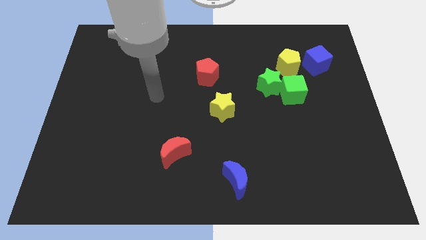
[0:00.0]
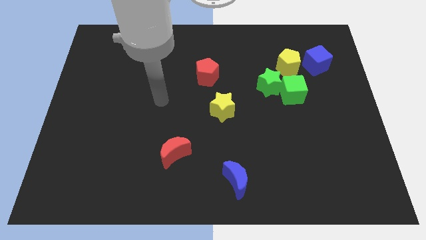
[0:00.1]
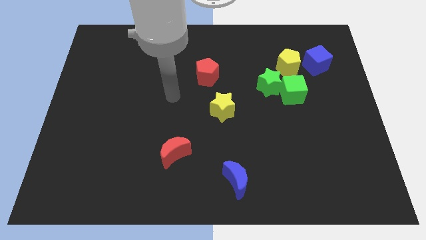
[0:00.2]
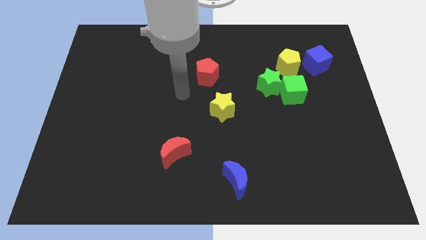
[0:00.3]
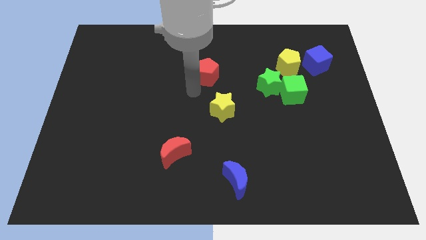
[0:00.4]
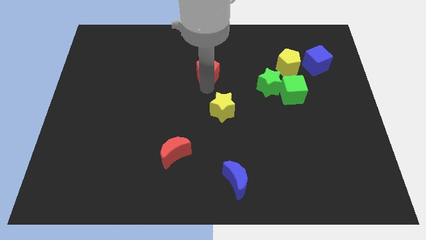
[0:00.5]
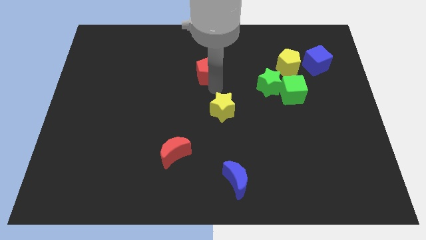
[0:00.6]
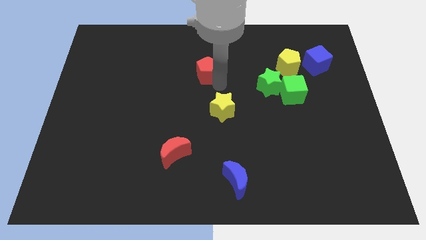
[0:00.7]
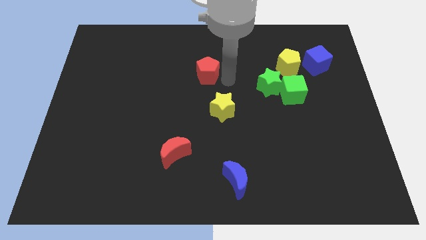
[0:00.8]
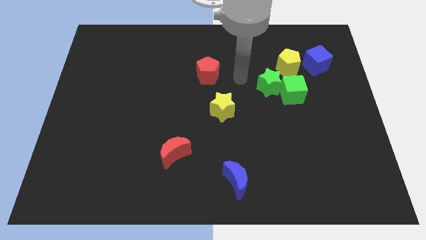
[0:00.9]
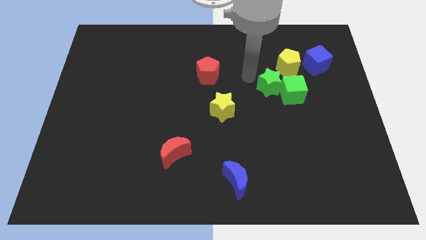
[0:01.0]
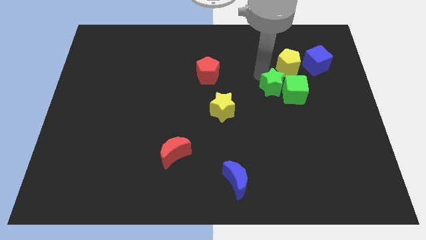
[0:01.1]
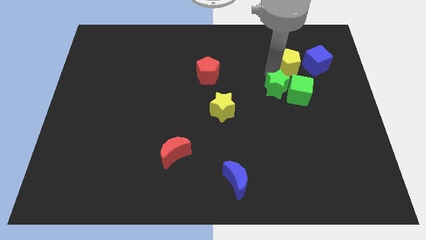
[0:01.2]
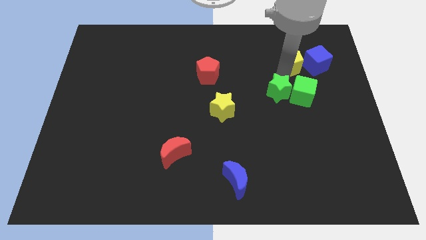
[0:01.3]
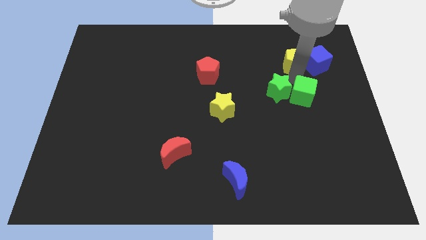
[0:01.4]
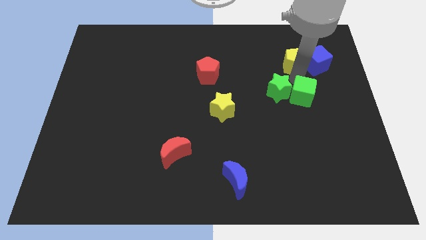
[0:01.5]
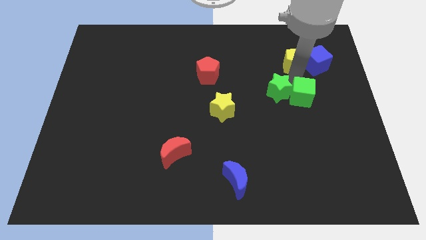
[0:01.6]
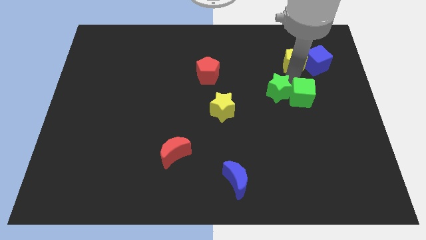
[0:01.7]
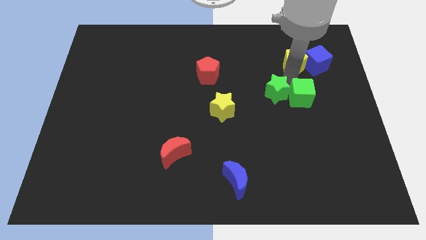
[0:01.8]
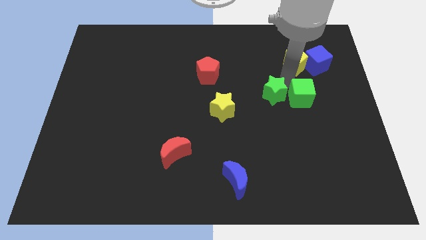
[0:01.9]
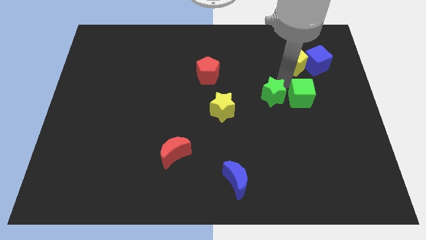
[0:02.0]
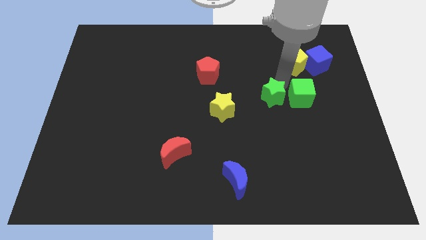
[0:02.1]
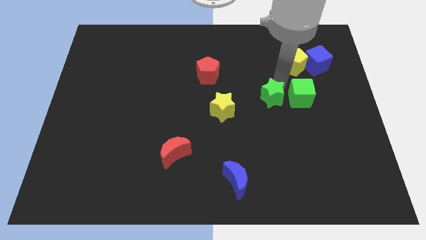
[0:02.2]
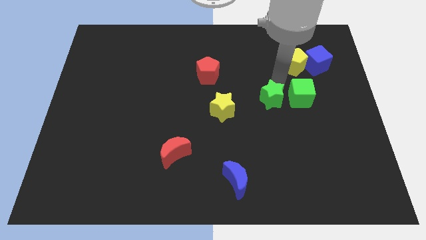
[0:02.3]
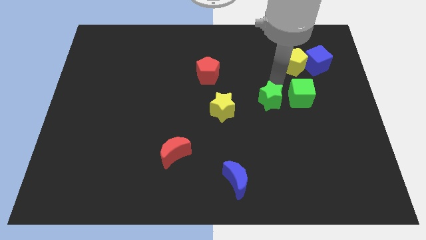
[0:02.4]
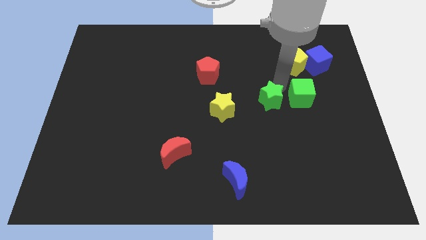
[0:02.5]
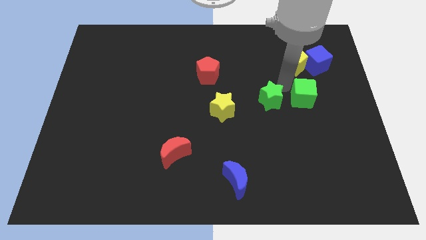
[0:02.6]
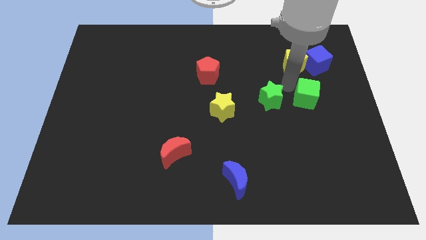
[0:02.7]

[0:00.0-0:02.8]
separate the green star from the green cube and yellow pentagon

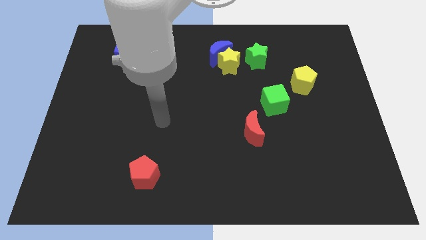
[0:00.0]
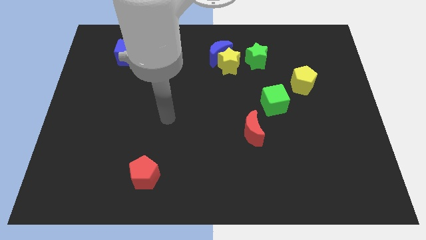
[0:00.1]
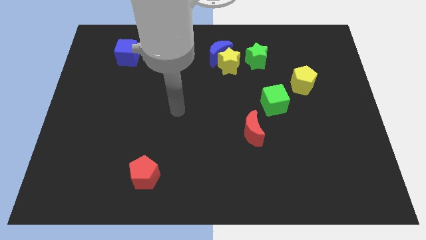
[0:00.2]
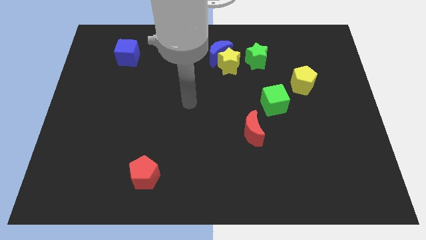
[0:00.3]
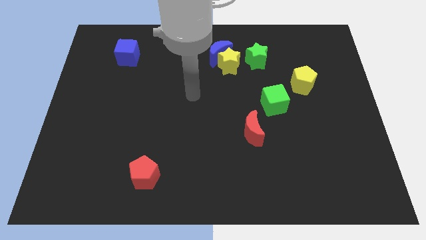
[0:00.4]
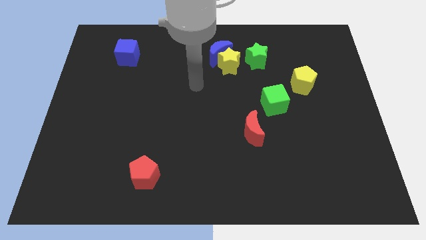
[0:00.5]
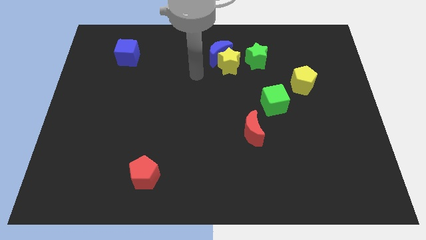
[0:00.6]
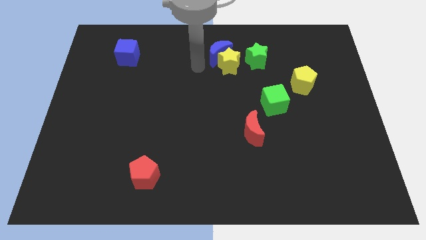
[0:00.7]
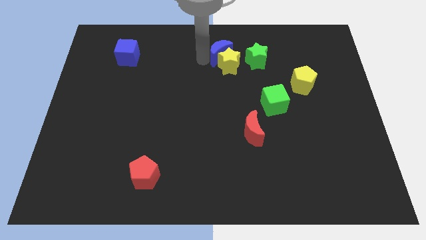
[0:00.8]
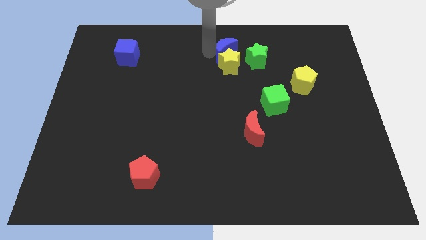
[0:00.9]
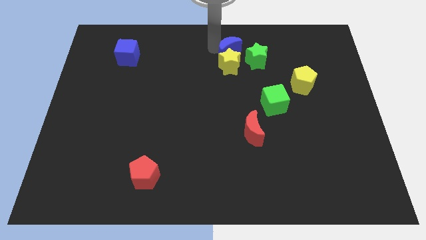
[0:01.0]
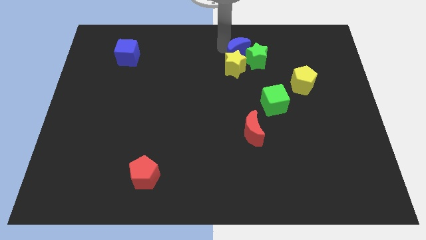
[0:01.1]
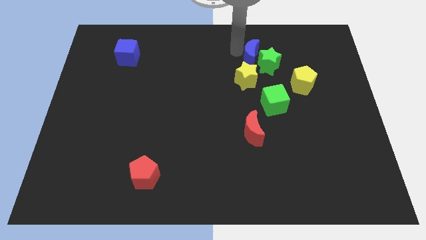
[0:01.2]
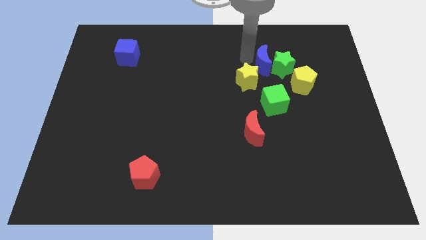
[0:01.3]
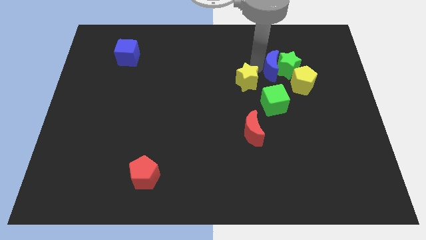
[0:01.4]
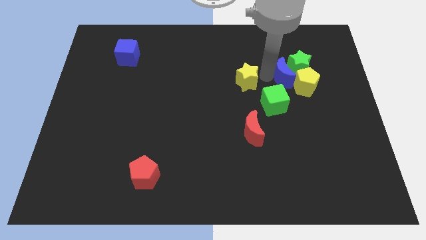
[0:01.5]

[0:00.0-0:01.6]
pull the yellow star apart from the blue moon and green star

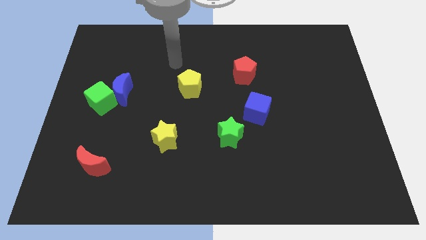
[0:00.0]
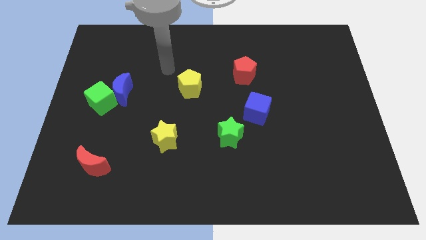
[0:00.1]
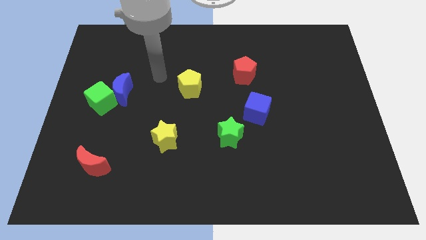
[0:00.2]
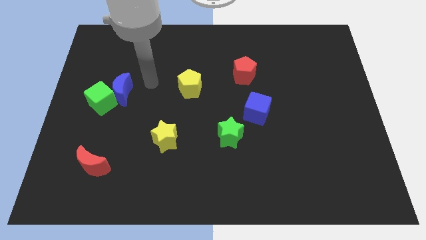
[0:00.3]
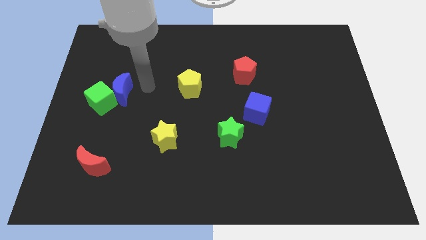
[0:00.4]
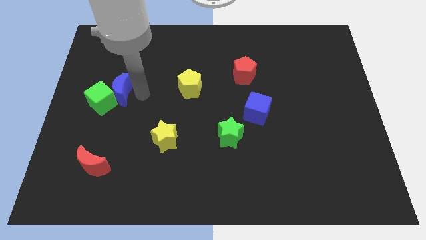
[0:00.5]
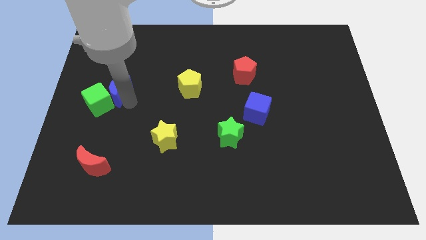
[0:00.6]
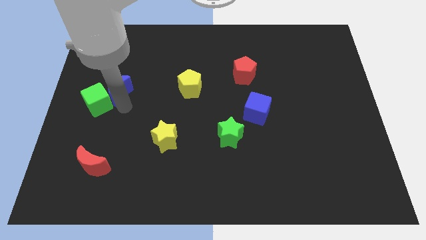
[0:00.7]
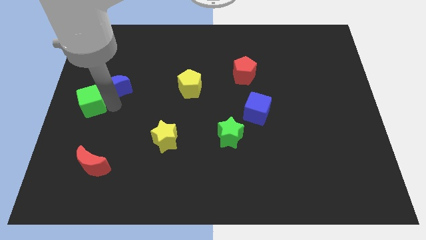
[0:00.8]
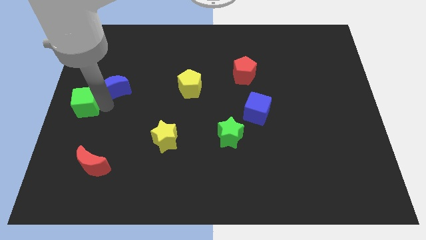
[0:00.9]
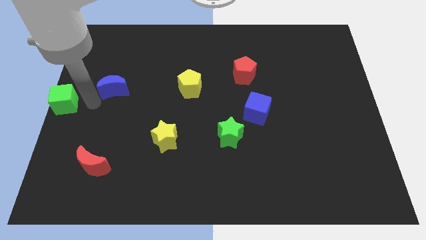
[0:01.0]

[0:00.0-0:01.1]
pull the blue moon apart from the green cube

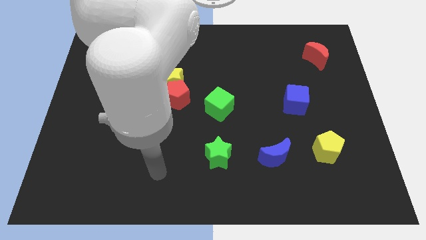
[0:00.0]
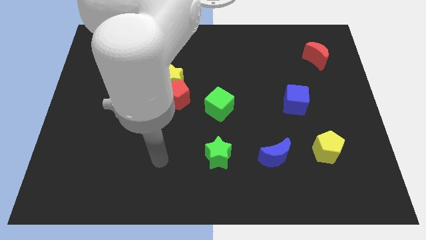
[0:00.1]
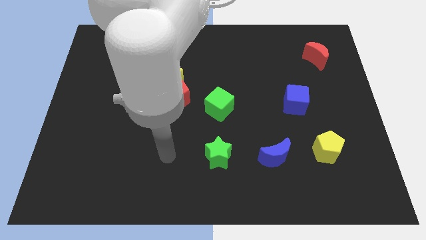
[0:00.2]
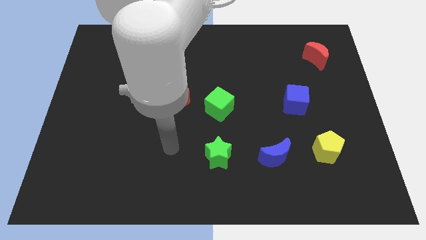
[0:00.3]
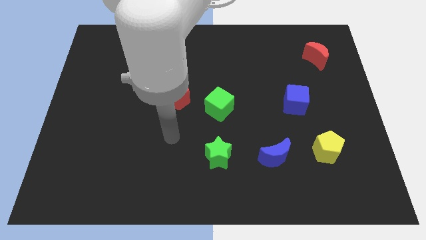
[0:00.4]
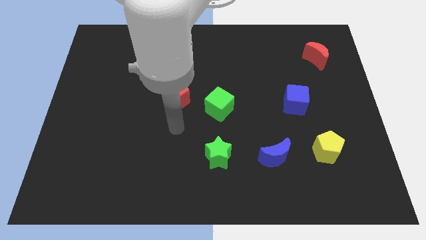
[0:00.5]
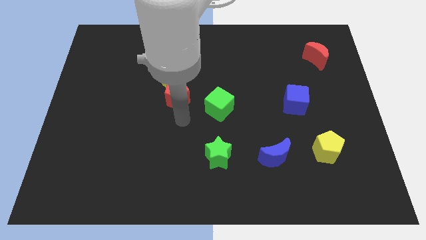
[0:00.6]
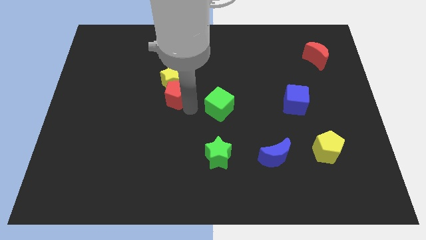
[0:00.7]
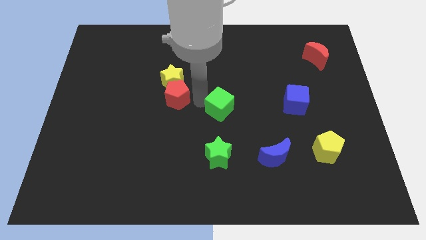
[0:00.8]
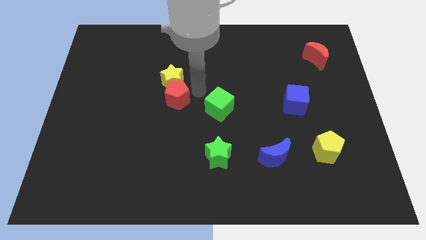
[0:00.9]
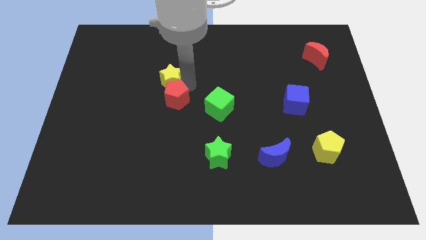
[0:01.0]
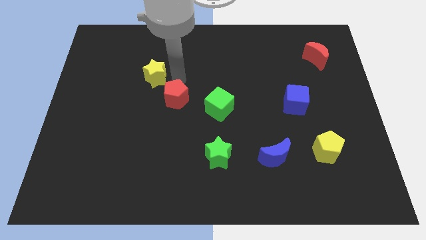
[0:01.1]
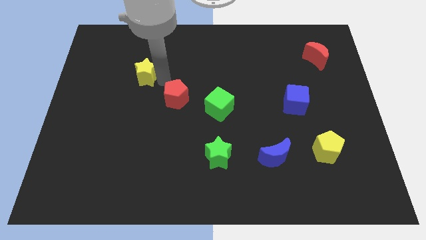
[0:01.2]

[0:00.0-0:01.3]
separate the red pentagon from the yellow star

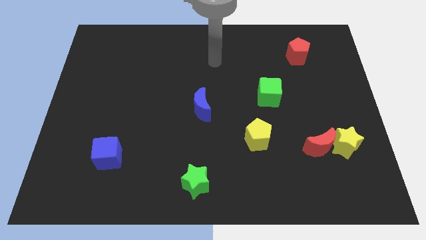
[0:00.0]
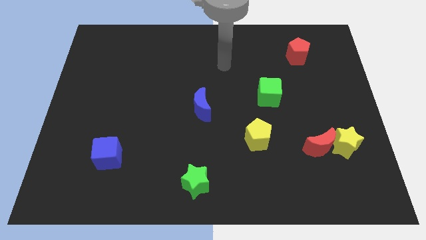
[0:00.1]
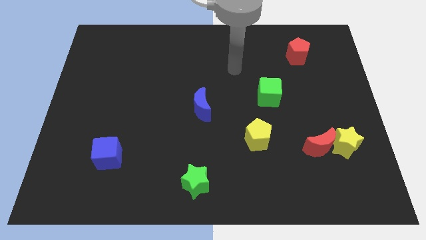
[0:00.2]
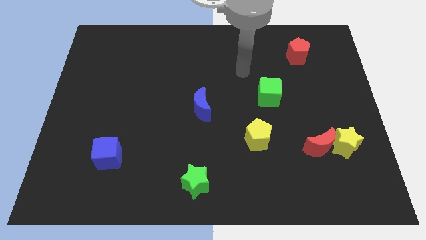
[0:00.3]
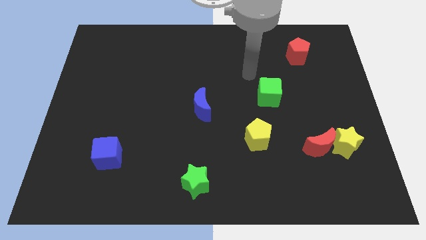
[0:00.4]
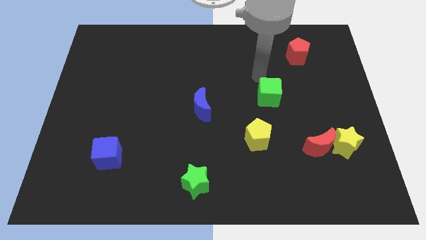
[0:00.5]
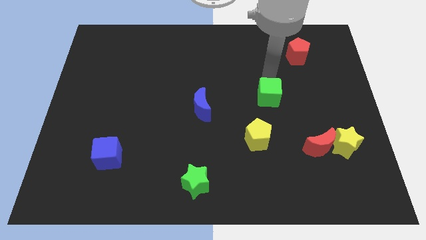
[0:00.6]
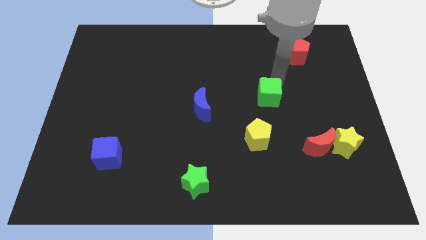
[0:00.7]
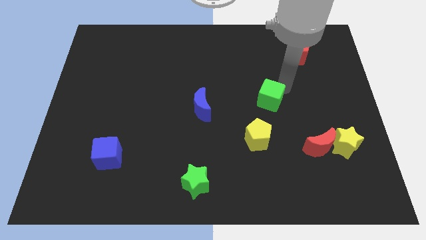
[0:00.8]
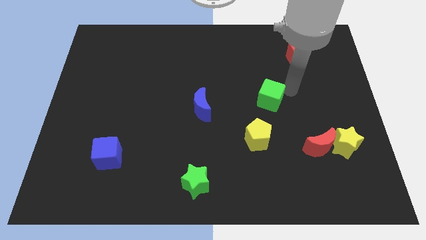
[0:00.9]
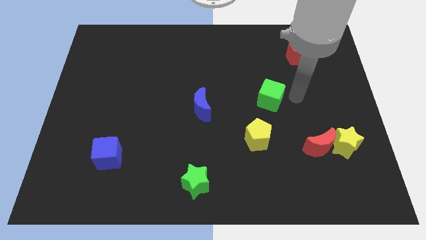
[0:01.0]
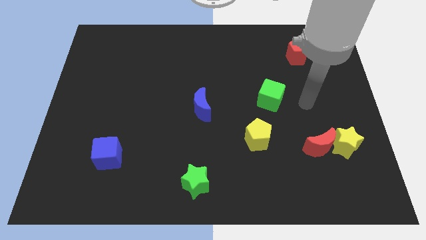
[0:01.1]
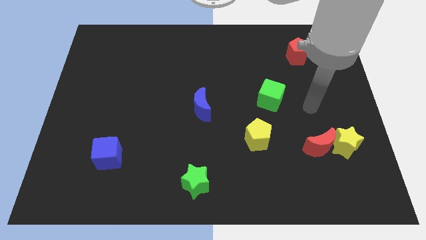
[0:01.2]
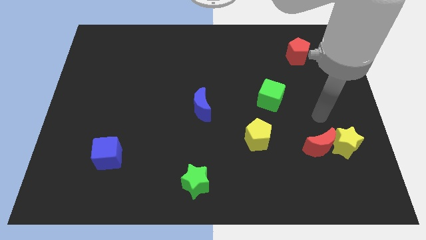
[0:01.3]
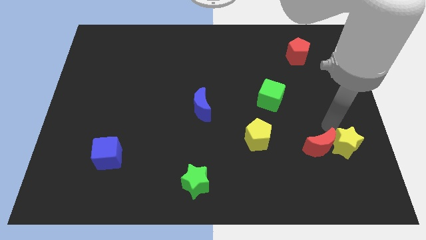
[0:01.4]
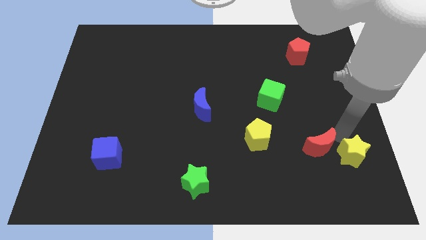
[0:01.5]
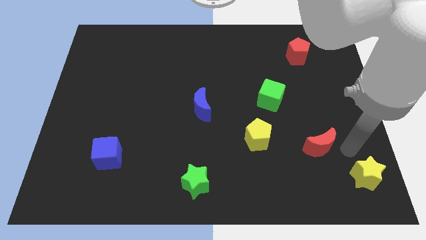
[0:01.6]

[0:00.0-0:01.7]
separate the red moon from the yellow star

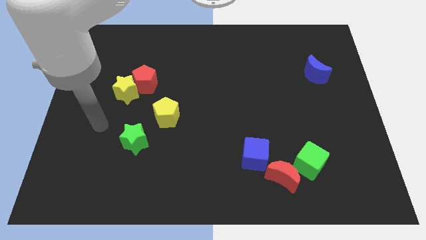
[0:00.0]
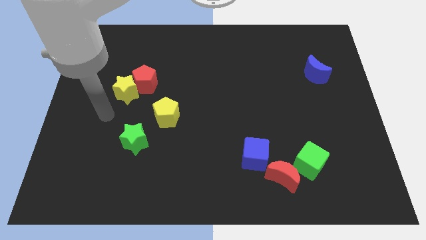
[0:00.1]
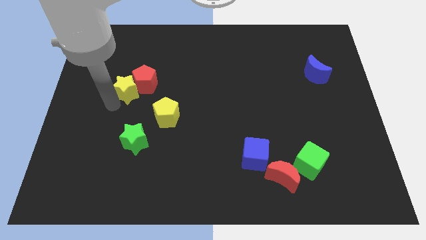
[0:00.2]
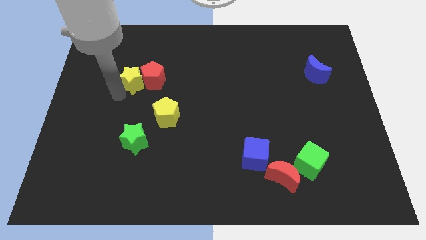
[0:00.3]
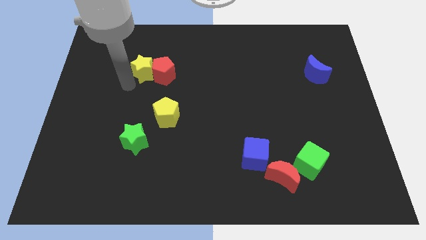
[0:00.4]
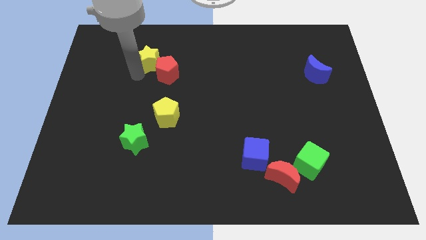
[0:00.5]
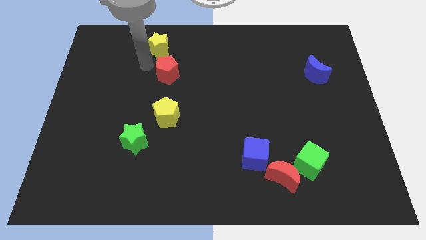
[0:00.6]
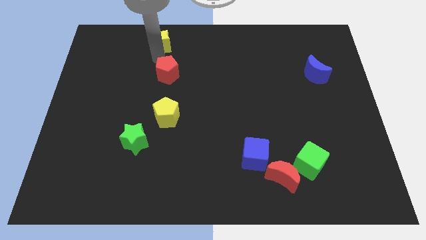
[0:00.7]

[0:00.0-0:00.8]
pull the red pentagon apart from the yellow star
